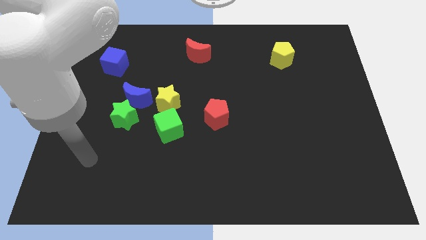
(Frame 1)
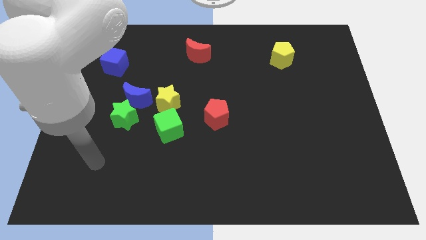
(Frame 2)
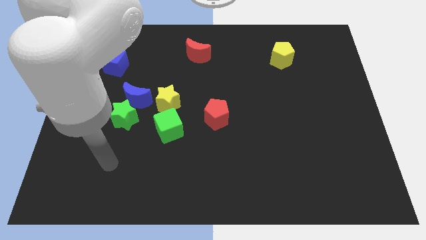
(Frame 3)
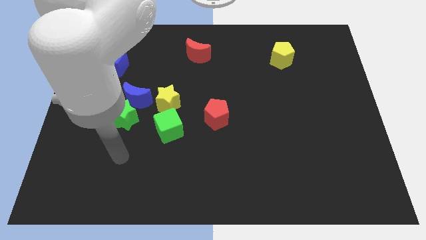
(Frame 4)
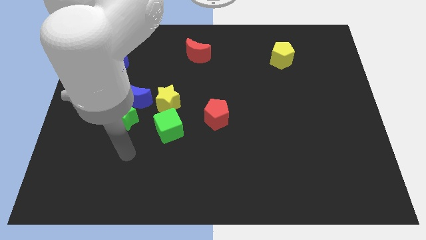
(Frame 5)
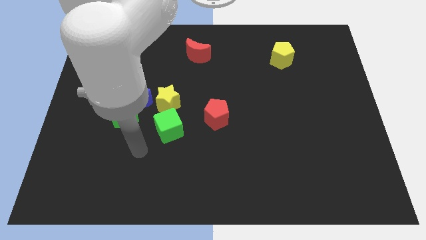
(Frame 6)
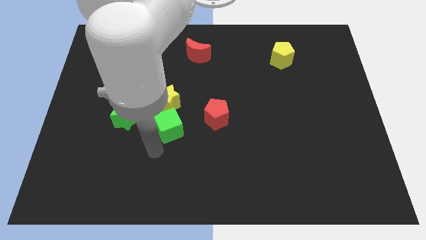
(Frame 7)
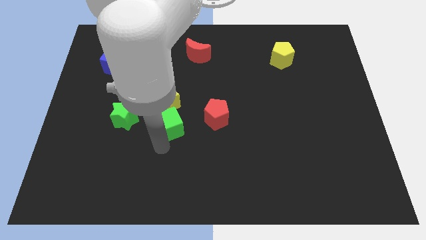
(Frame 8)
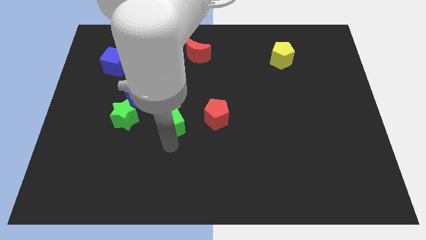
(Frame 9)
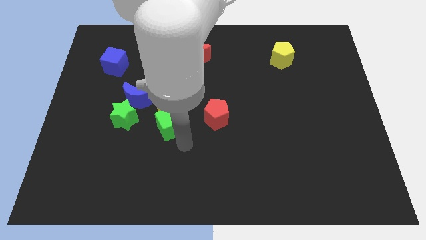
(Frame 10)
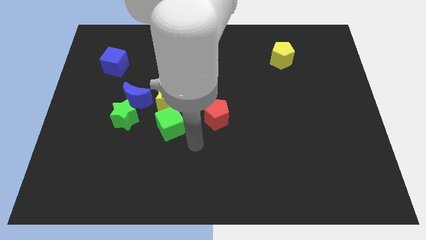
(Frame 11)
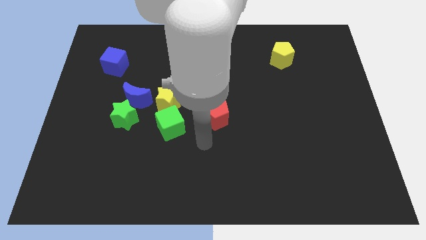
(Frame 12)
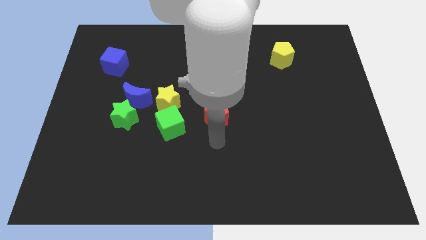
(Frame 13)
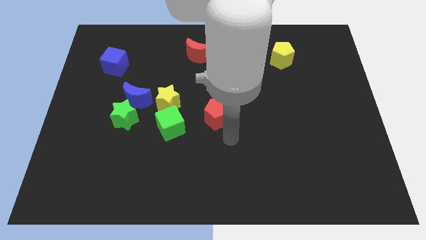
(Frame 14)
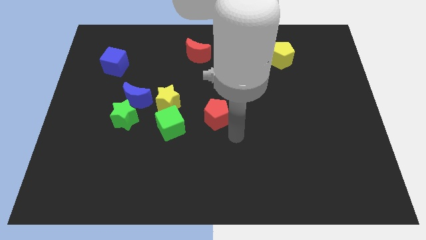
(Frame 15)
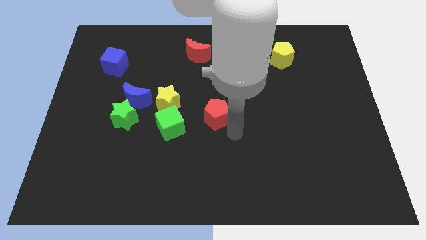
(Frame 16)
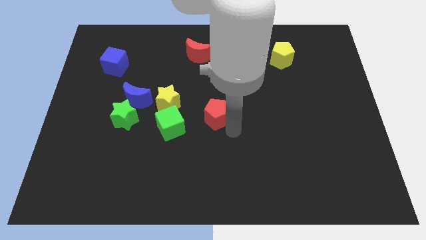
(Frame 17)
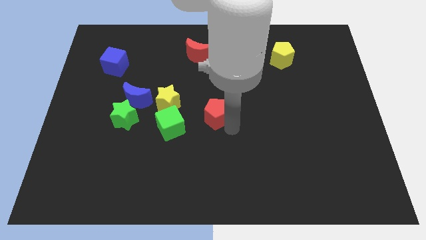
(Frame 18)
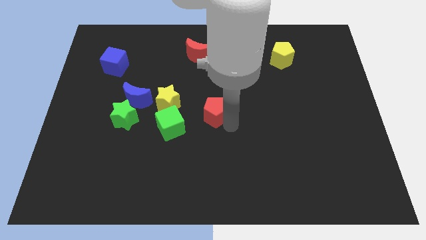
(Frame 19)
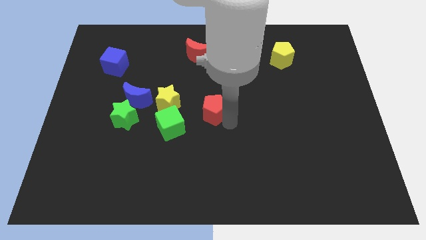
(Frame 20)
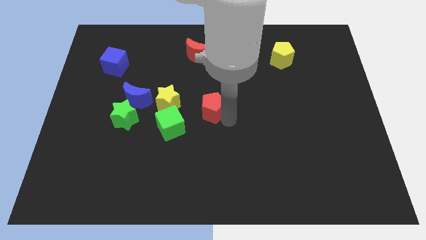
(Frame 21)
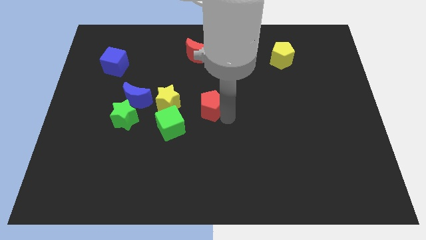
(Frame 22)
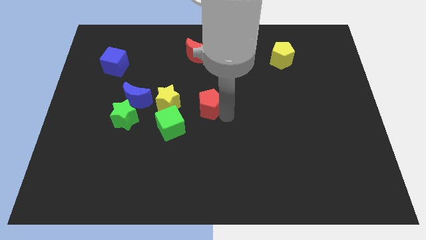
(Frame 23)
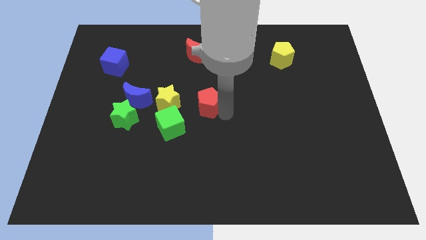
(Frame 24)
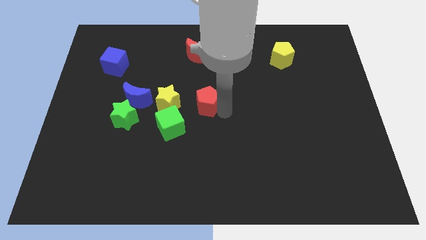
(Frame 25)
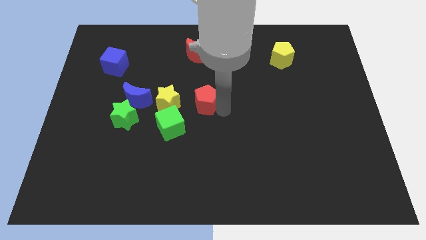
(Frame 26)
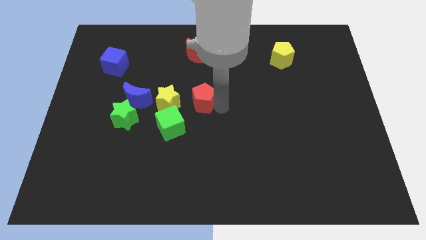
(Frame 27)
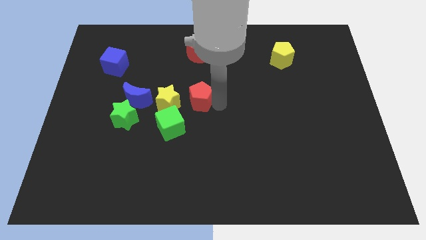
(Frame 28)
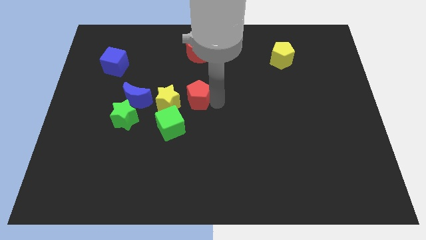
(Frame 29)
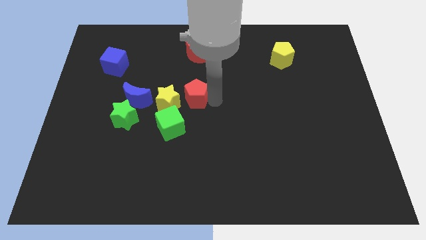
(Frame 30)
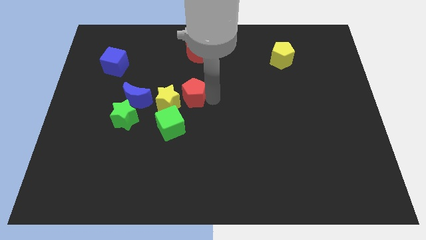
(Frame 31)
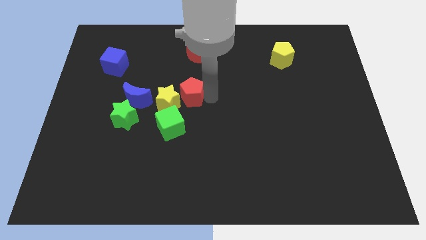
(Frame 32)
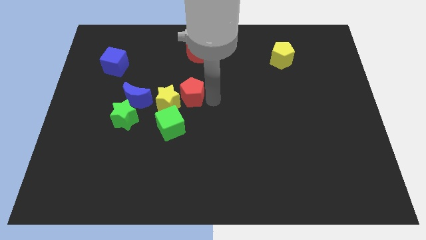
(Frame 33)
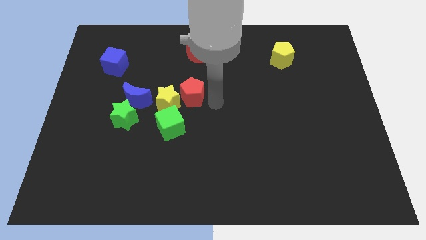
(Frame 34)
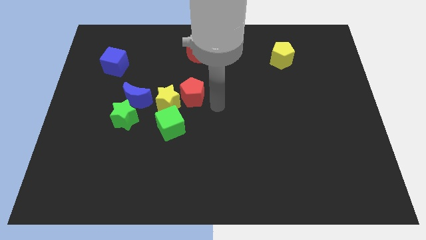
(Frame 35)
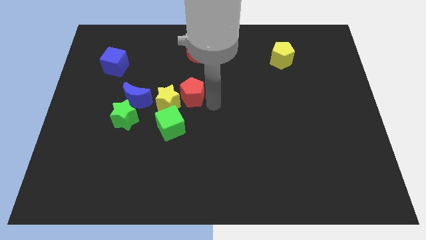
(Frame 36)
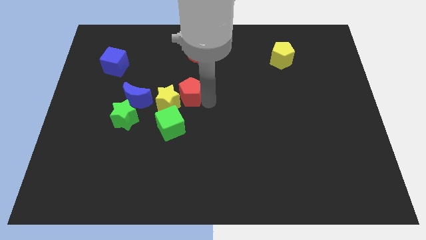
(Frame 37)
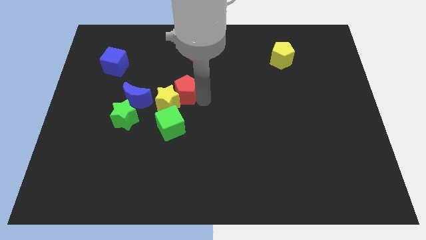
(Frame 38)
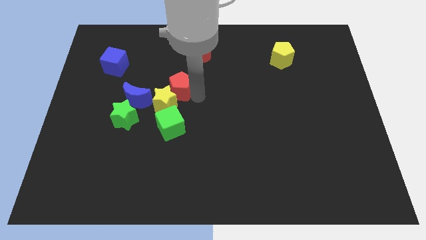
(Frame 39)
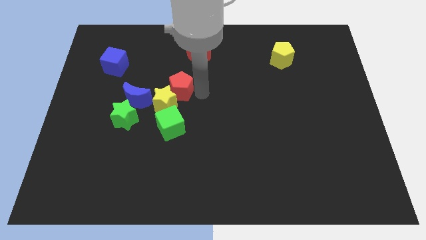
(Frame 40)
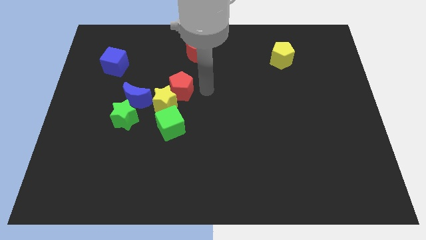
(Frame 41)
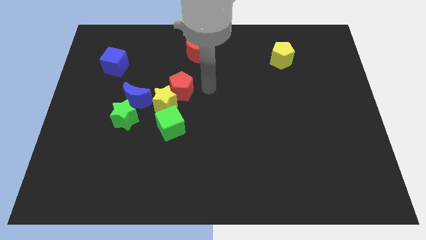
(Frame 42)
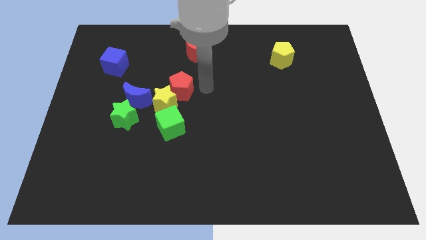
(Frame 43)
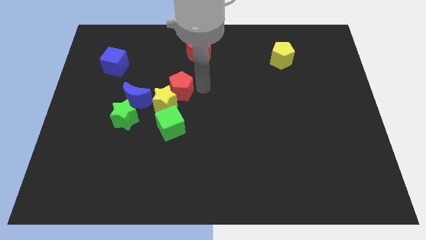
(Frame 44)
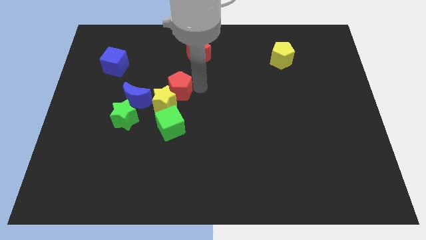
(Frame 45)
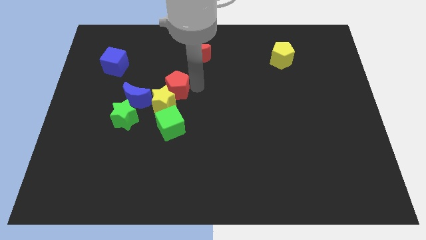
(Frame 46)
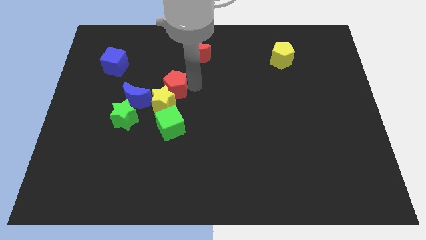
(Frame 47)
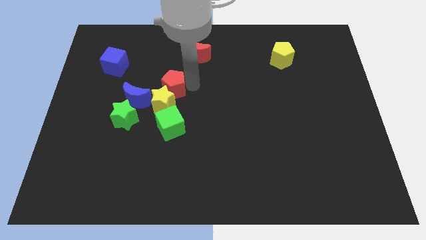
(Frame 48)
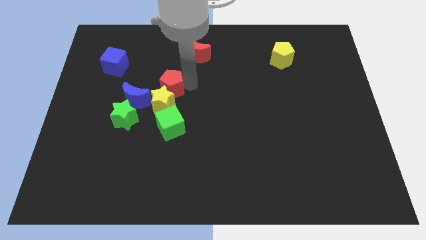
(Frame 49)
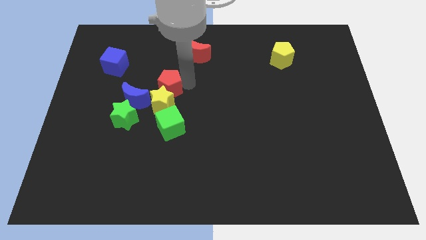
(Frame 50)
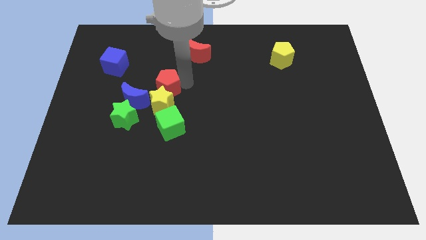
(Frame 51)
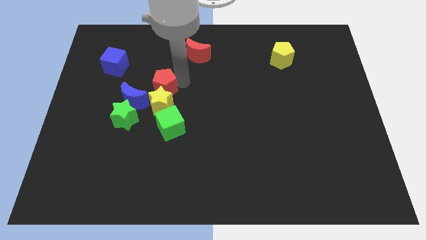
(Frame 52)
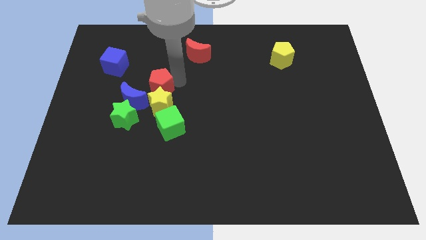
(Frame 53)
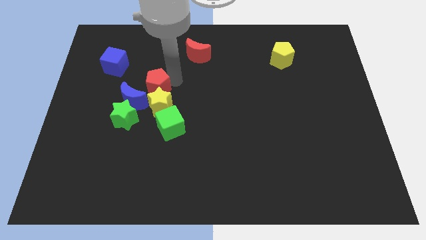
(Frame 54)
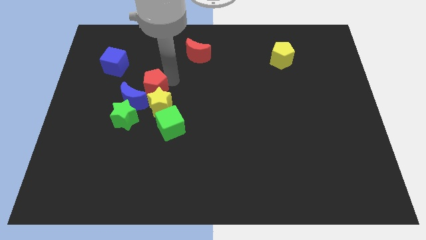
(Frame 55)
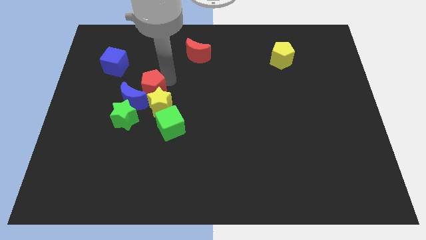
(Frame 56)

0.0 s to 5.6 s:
move the red pentagon next to the blue moon

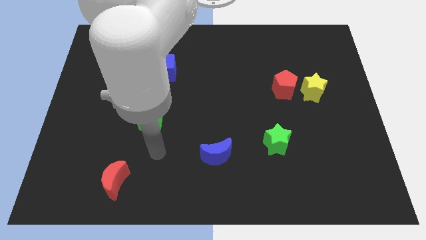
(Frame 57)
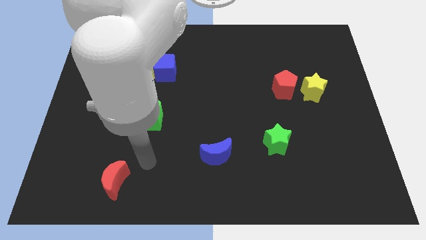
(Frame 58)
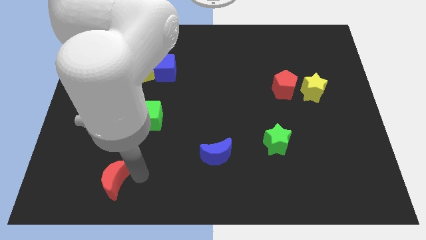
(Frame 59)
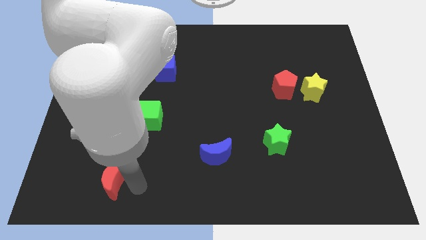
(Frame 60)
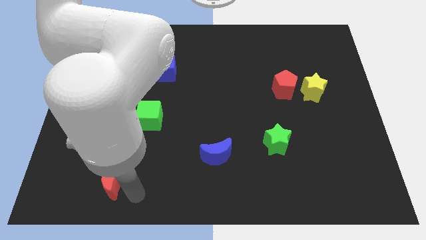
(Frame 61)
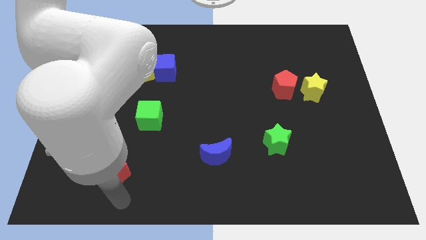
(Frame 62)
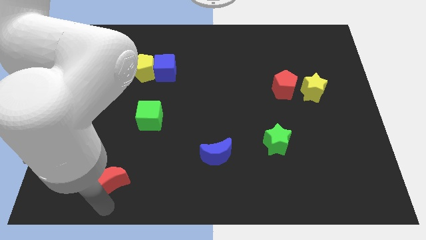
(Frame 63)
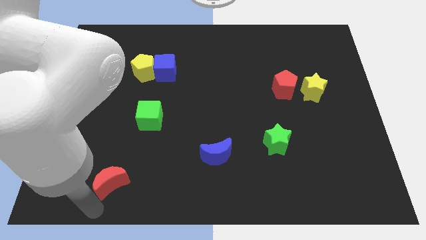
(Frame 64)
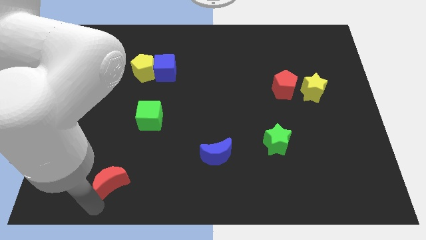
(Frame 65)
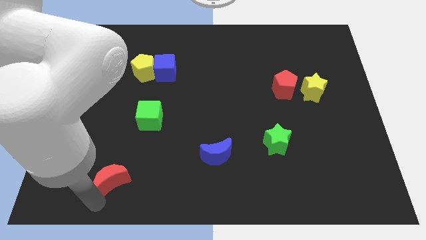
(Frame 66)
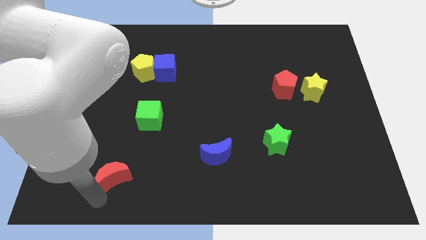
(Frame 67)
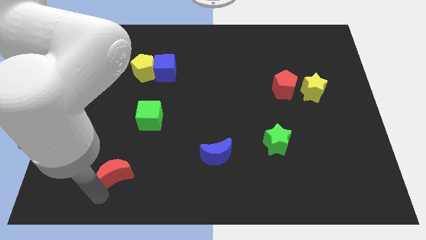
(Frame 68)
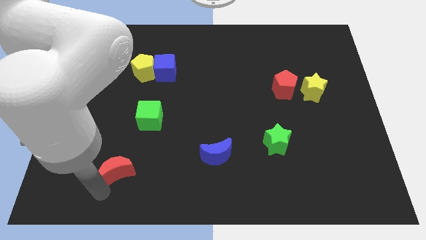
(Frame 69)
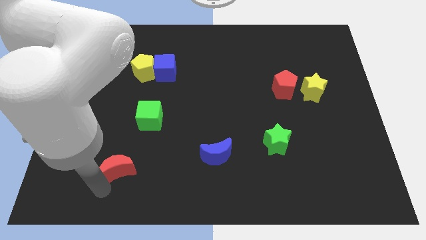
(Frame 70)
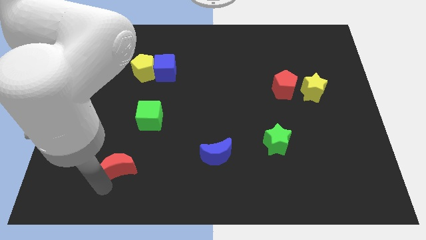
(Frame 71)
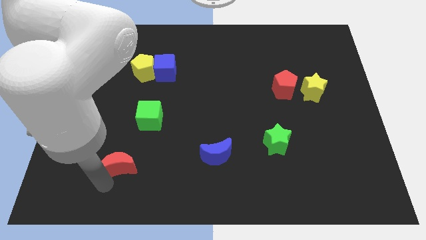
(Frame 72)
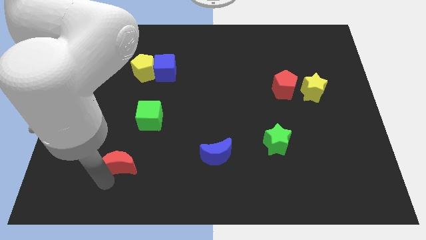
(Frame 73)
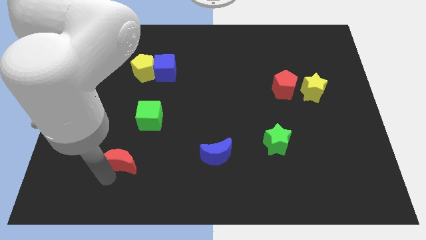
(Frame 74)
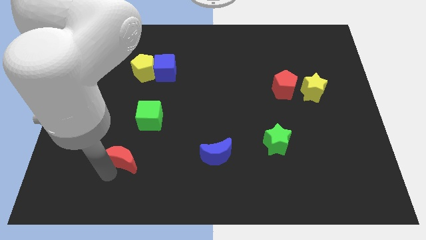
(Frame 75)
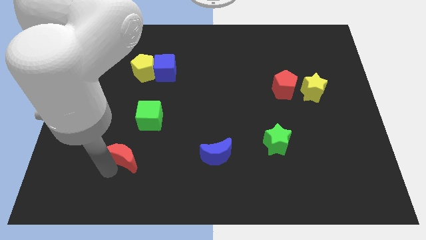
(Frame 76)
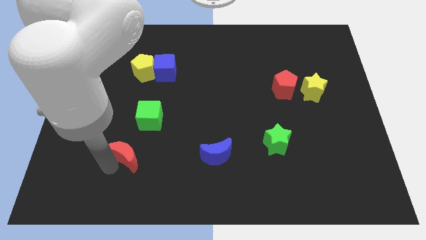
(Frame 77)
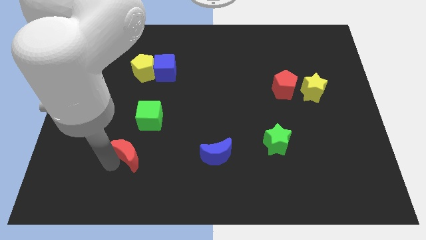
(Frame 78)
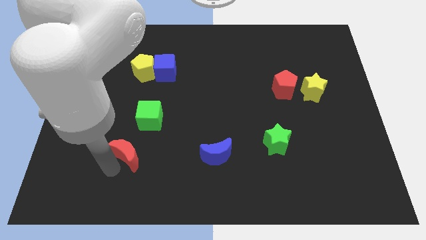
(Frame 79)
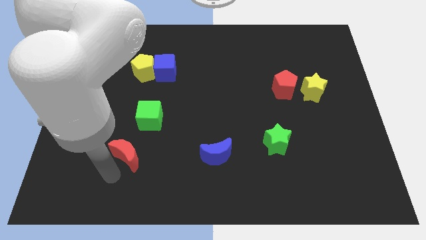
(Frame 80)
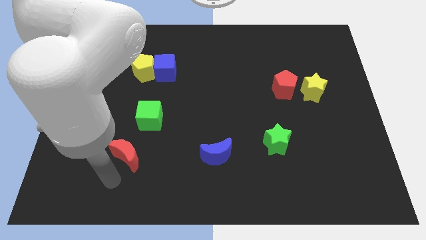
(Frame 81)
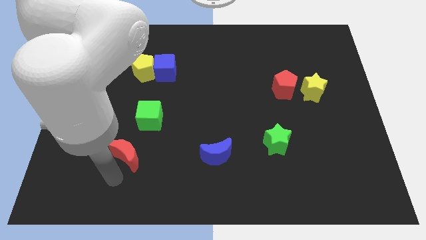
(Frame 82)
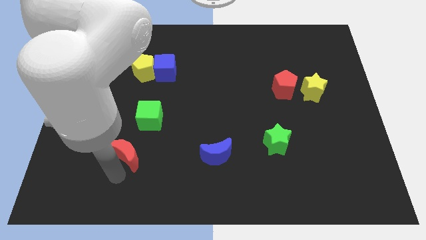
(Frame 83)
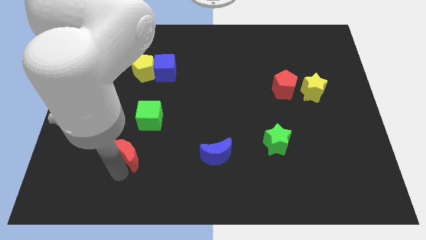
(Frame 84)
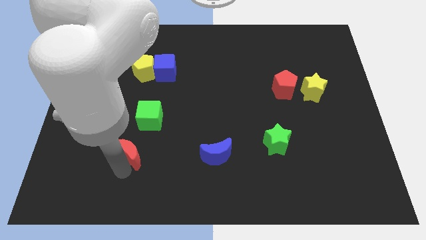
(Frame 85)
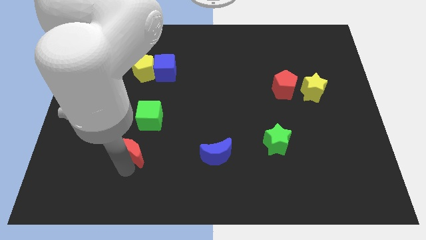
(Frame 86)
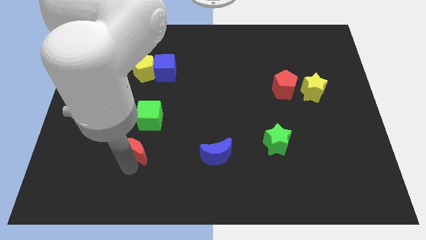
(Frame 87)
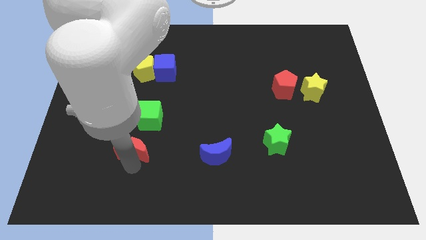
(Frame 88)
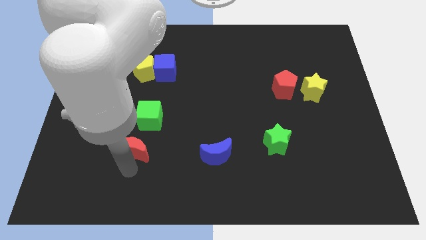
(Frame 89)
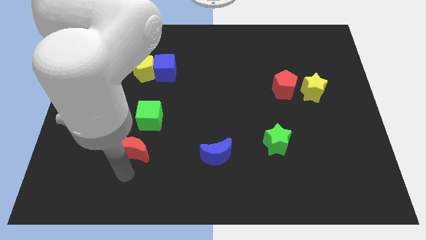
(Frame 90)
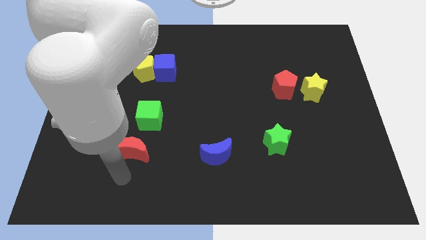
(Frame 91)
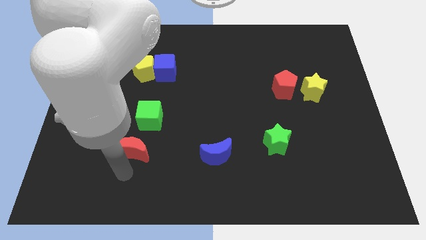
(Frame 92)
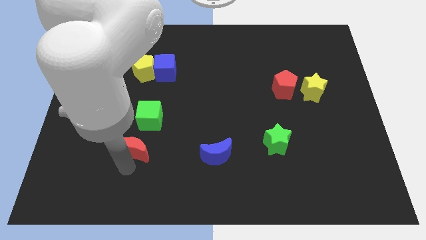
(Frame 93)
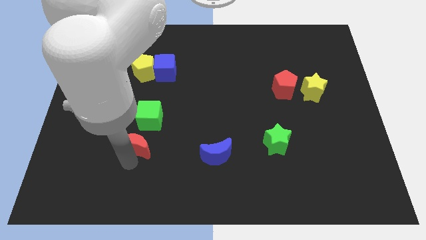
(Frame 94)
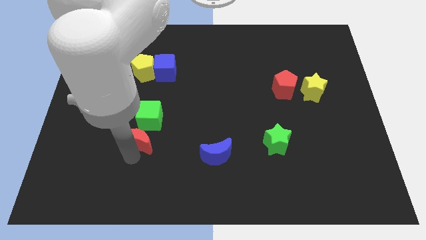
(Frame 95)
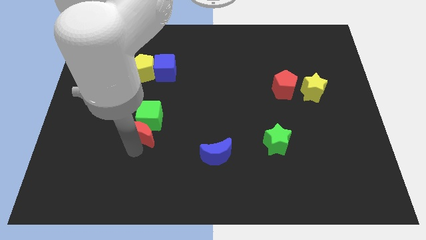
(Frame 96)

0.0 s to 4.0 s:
slide the red moon towards the green cube
